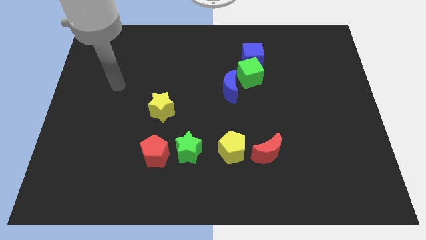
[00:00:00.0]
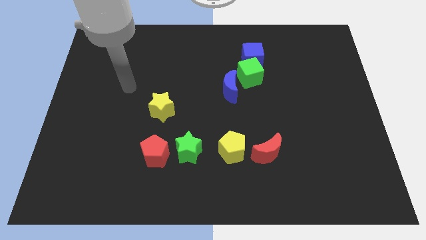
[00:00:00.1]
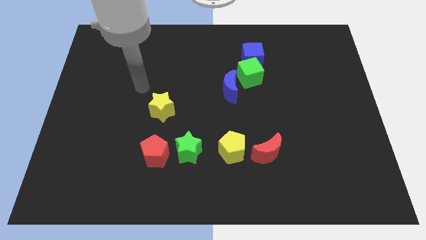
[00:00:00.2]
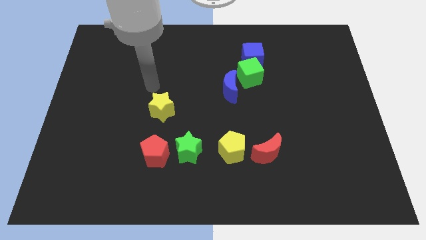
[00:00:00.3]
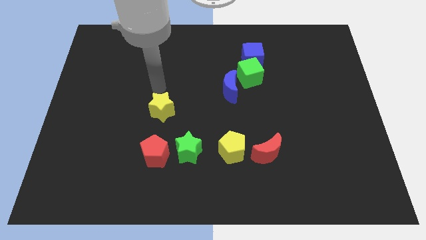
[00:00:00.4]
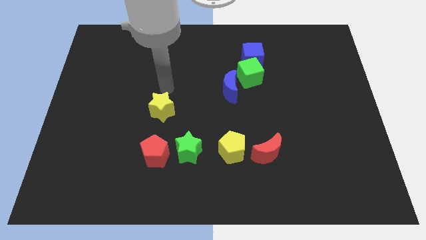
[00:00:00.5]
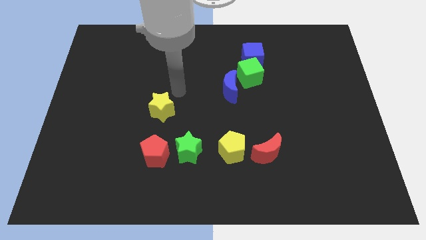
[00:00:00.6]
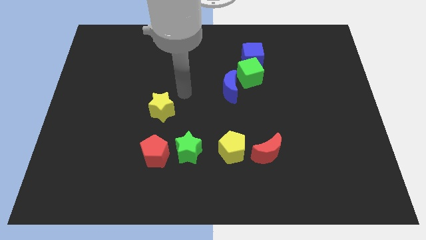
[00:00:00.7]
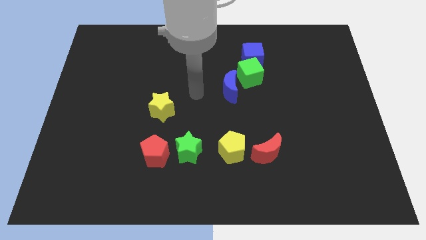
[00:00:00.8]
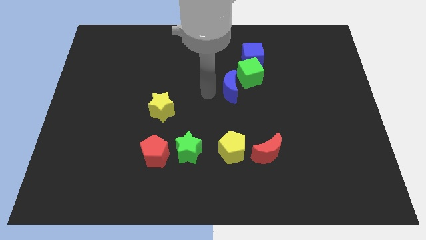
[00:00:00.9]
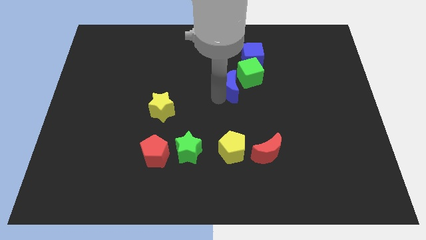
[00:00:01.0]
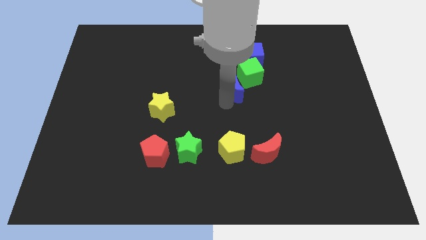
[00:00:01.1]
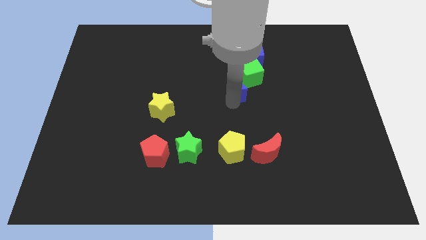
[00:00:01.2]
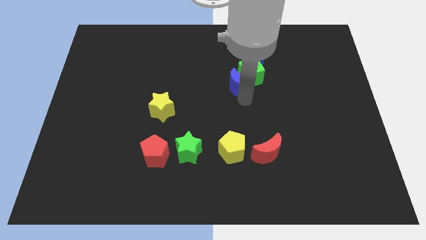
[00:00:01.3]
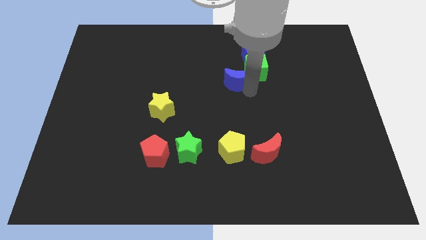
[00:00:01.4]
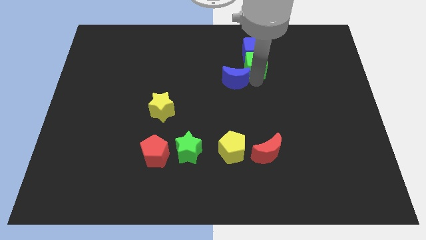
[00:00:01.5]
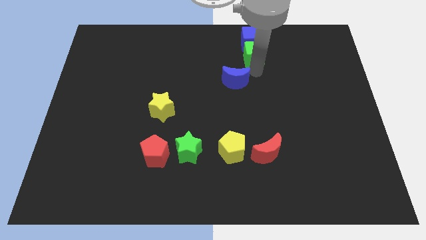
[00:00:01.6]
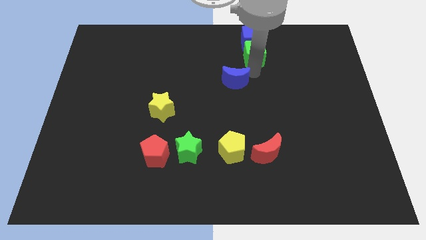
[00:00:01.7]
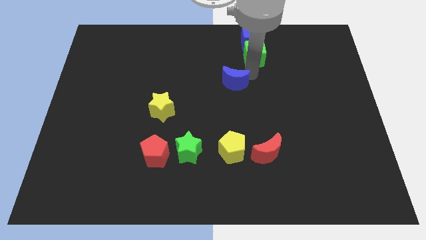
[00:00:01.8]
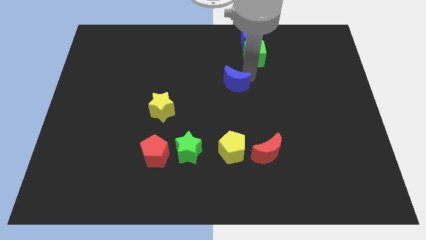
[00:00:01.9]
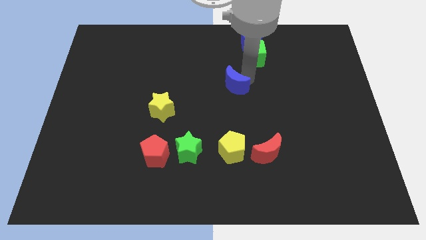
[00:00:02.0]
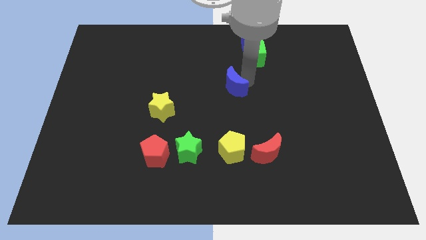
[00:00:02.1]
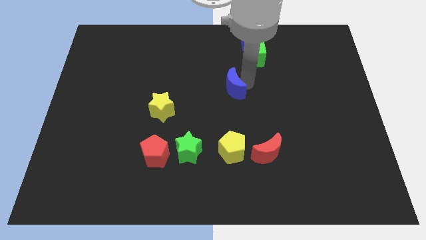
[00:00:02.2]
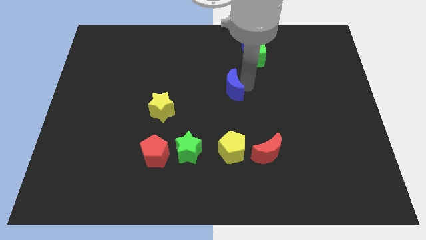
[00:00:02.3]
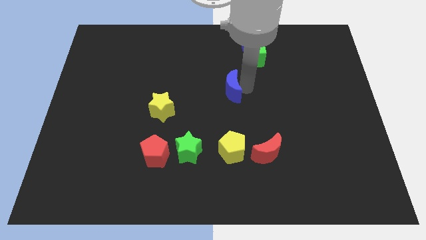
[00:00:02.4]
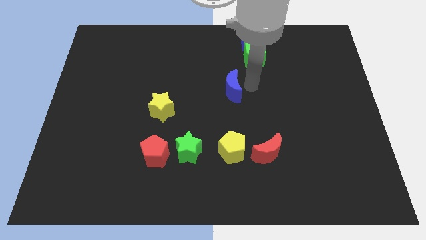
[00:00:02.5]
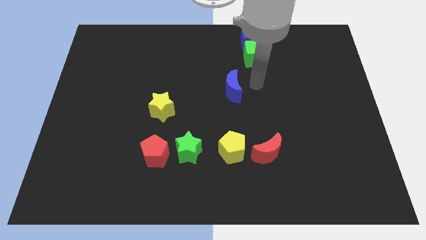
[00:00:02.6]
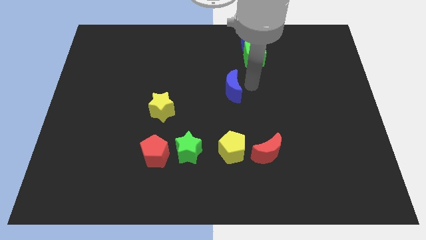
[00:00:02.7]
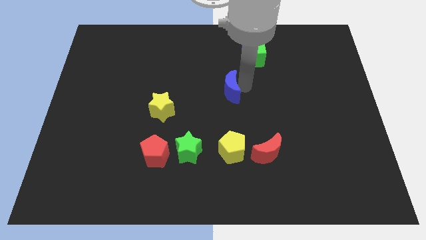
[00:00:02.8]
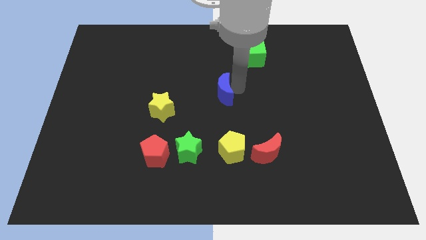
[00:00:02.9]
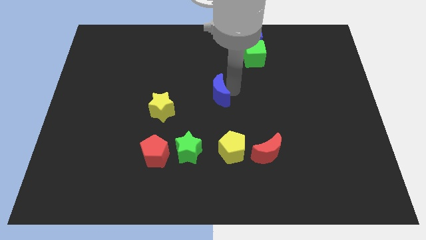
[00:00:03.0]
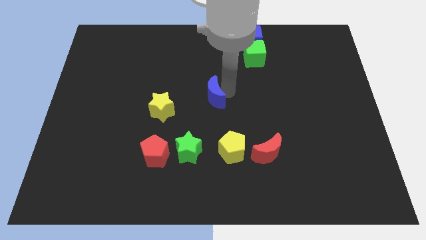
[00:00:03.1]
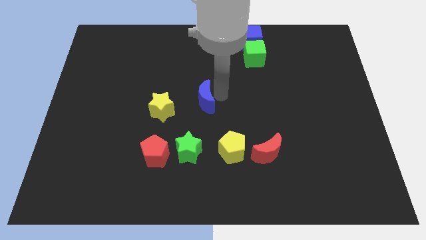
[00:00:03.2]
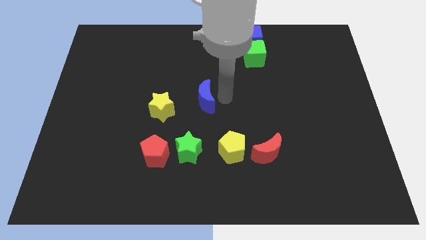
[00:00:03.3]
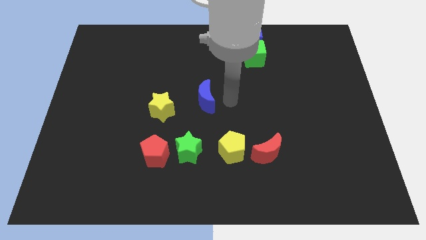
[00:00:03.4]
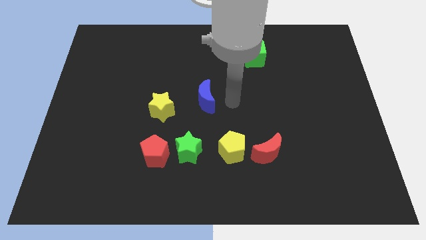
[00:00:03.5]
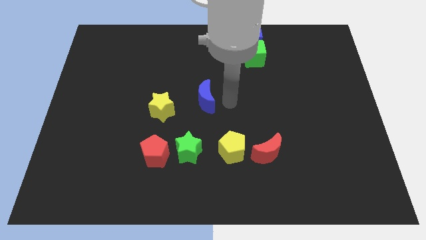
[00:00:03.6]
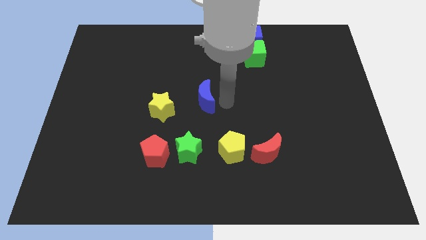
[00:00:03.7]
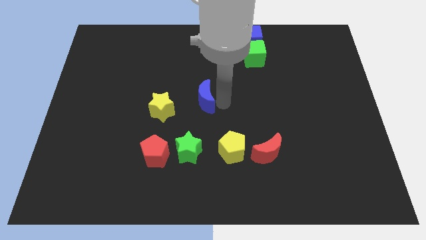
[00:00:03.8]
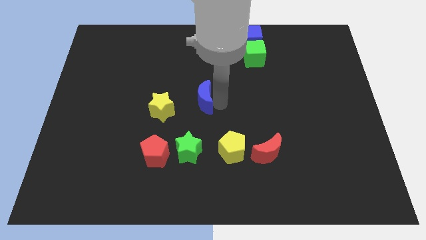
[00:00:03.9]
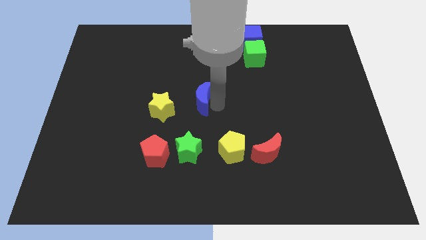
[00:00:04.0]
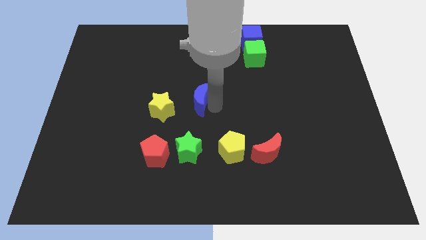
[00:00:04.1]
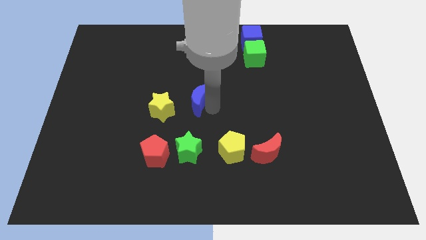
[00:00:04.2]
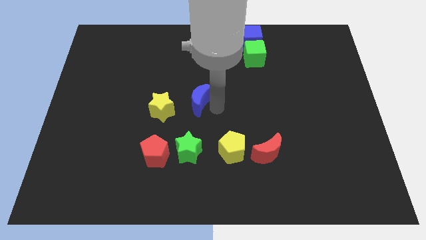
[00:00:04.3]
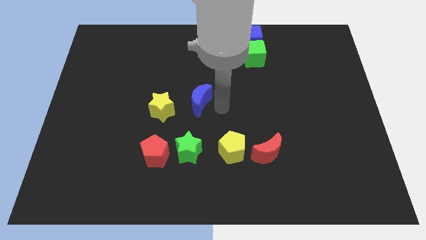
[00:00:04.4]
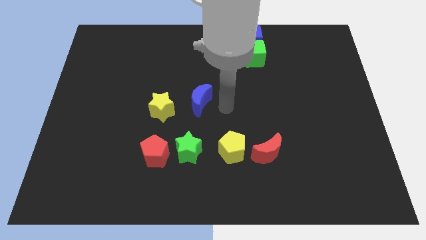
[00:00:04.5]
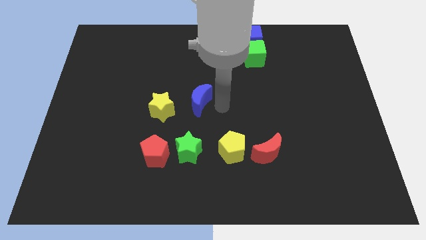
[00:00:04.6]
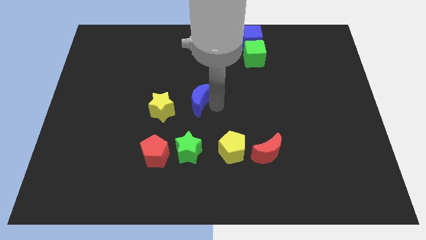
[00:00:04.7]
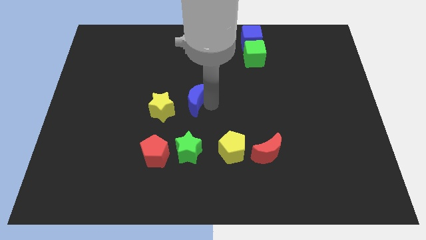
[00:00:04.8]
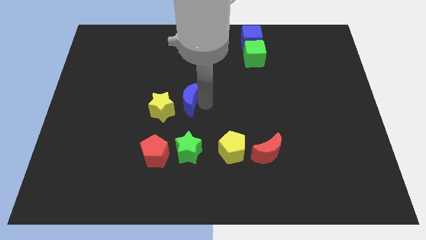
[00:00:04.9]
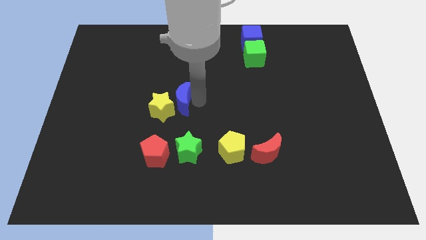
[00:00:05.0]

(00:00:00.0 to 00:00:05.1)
put the blue moon towards the yellow star

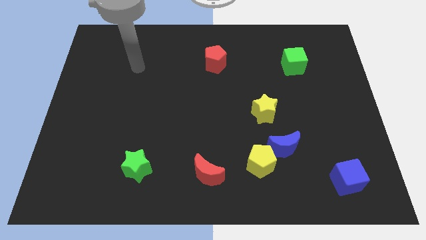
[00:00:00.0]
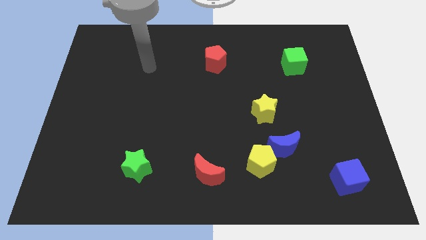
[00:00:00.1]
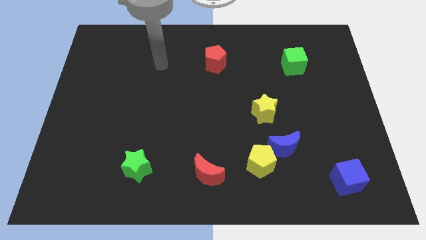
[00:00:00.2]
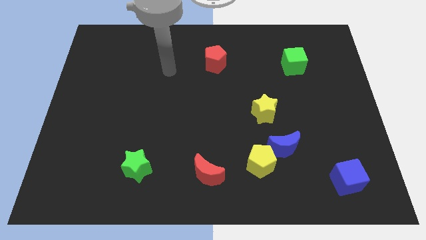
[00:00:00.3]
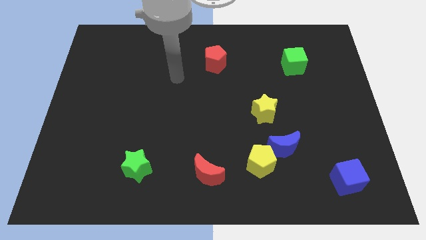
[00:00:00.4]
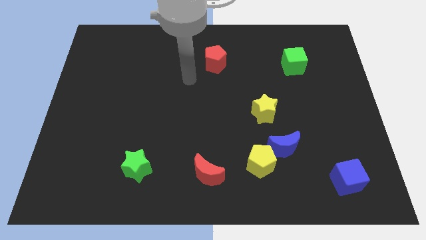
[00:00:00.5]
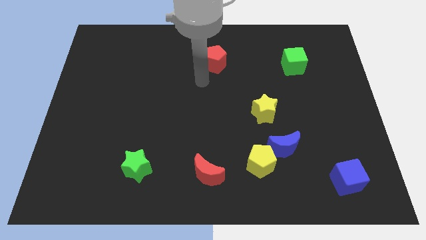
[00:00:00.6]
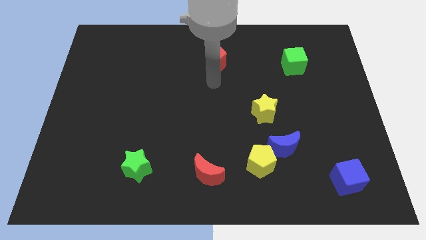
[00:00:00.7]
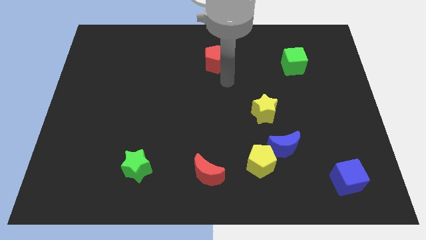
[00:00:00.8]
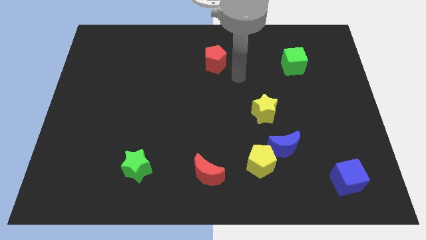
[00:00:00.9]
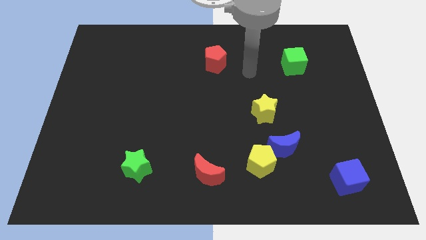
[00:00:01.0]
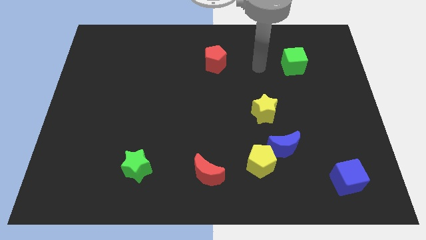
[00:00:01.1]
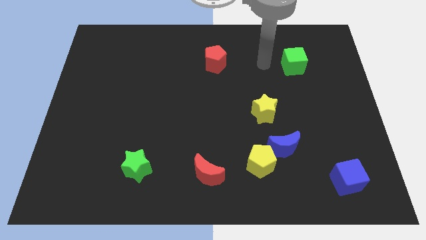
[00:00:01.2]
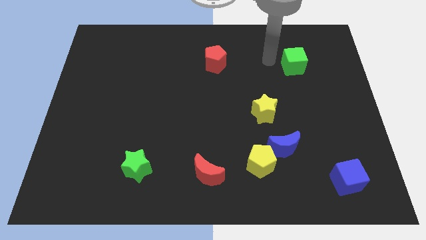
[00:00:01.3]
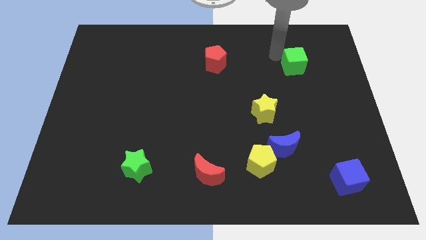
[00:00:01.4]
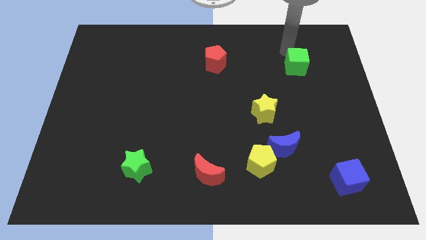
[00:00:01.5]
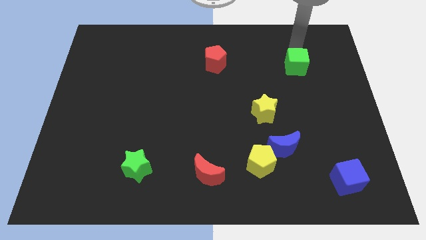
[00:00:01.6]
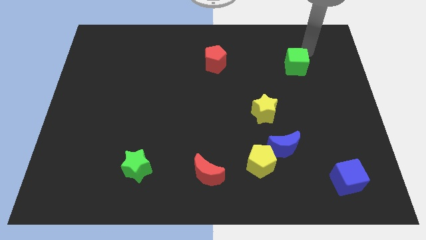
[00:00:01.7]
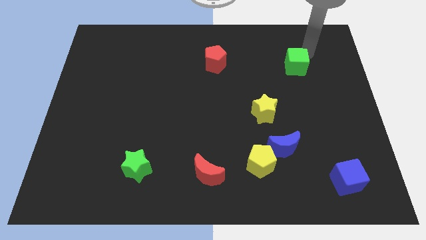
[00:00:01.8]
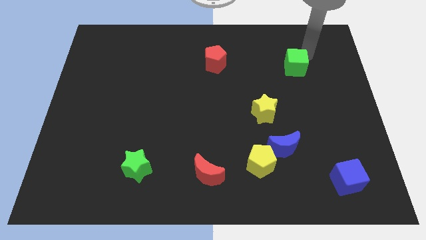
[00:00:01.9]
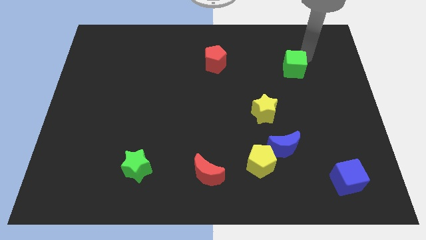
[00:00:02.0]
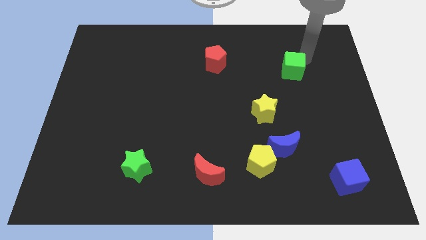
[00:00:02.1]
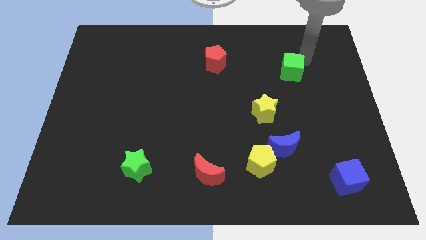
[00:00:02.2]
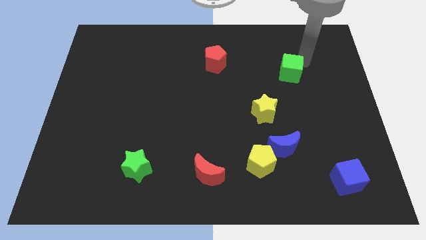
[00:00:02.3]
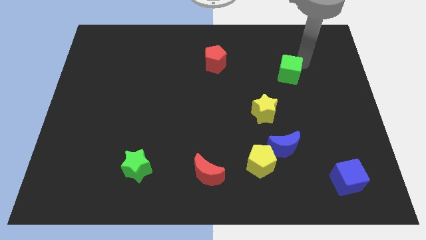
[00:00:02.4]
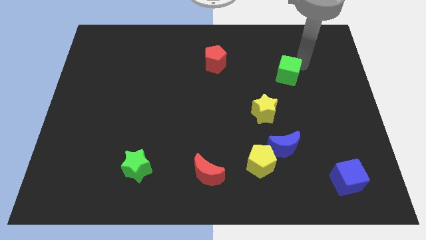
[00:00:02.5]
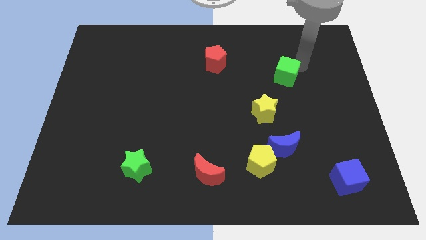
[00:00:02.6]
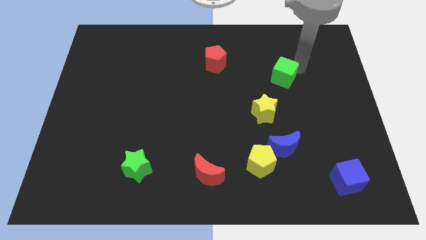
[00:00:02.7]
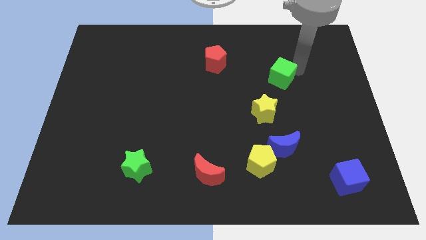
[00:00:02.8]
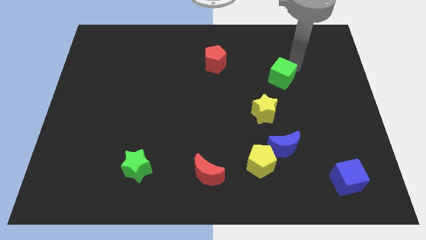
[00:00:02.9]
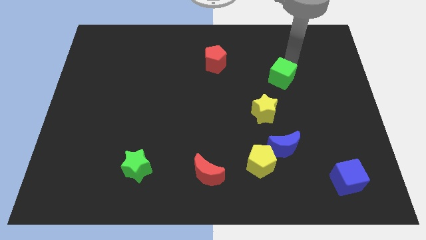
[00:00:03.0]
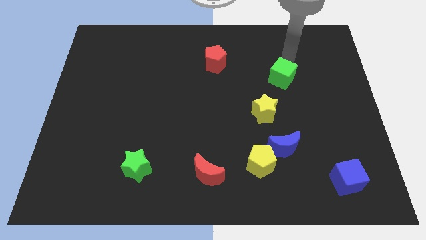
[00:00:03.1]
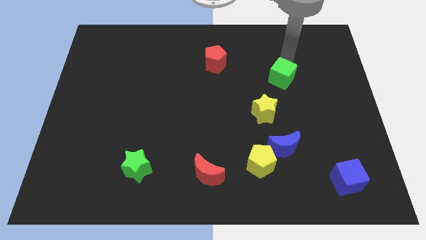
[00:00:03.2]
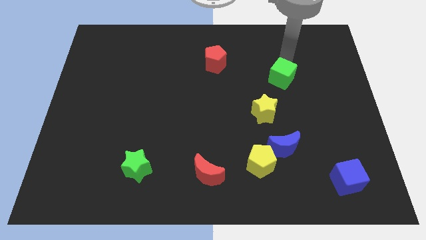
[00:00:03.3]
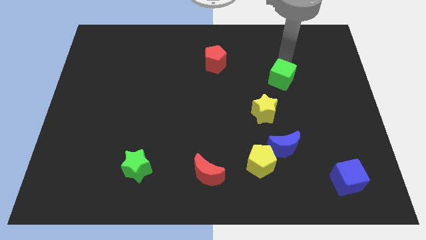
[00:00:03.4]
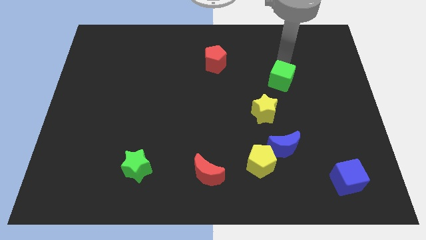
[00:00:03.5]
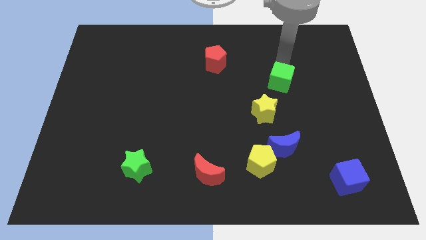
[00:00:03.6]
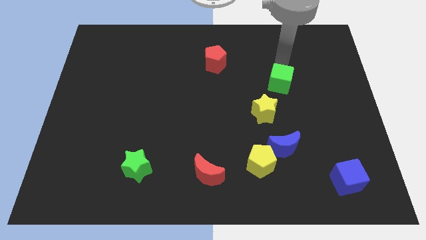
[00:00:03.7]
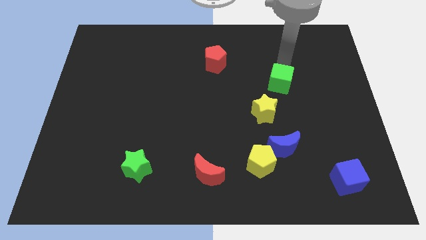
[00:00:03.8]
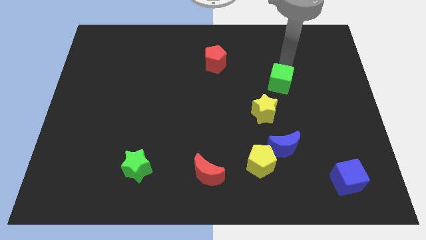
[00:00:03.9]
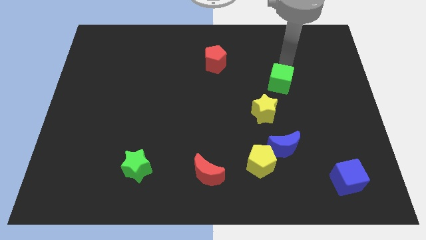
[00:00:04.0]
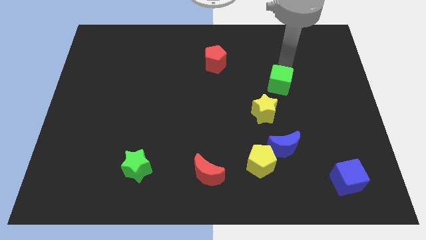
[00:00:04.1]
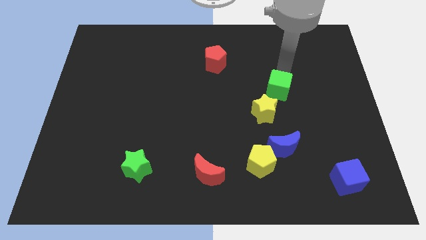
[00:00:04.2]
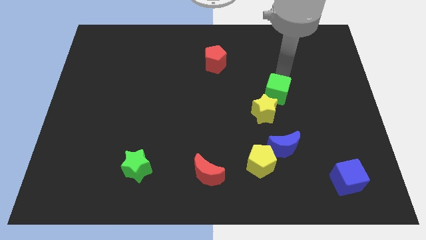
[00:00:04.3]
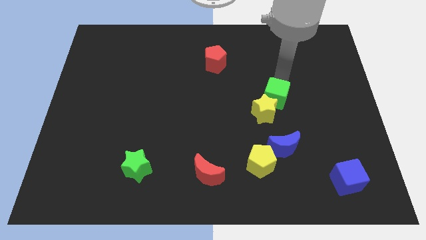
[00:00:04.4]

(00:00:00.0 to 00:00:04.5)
move the green cube to the yellow star
